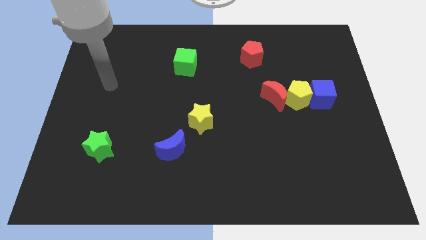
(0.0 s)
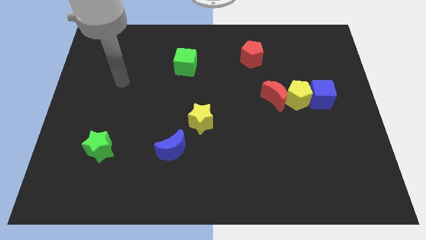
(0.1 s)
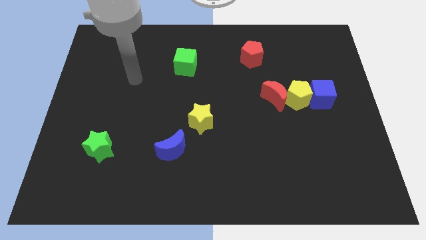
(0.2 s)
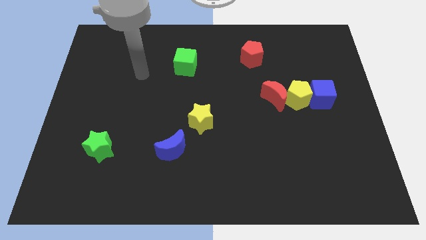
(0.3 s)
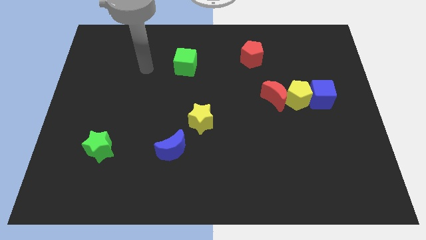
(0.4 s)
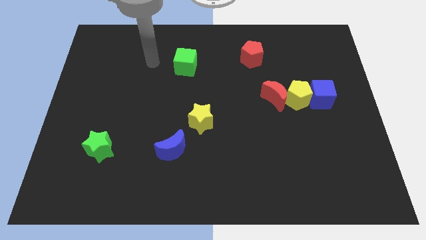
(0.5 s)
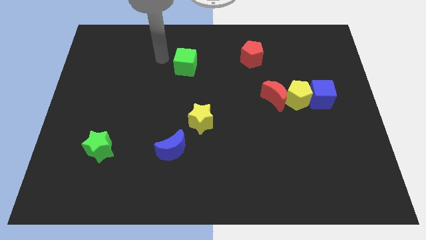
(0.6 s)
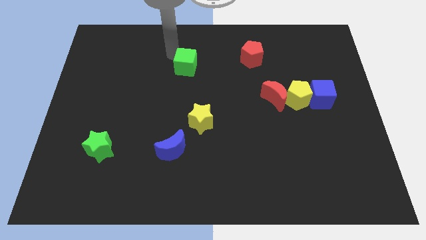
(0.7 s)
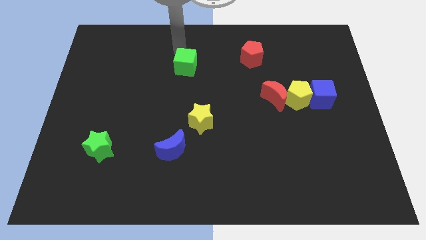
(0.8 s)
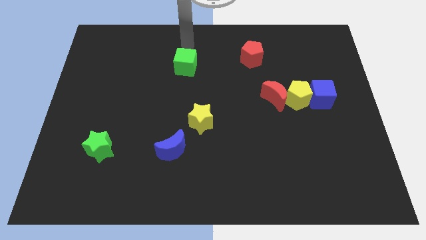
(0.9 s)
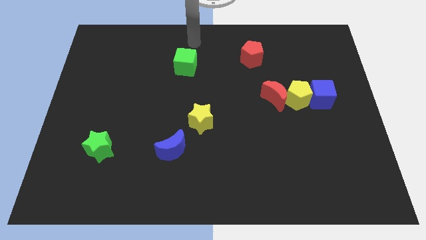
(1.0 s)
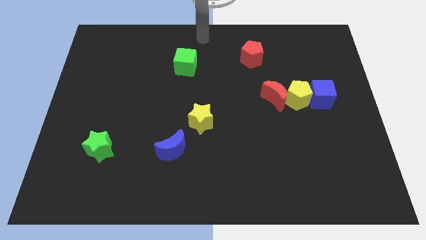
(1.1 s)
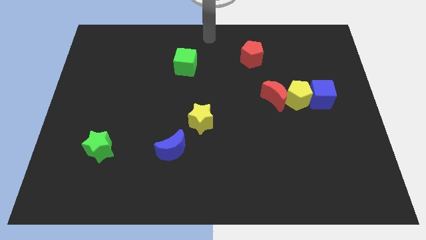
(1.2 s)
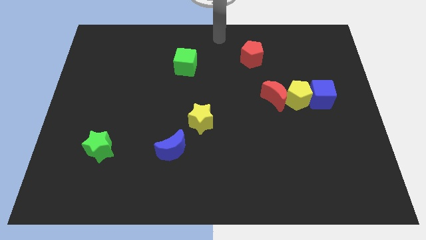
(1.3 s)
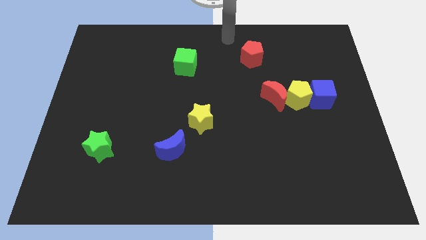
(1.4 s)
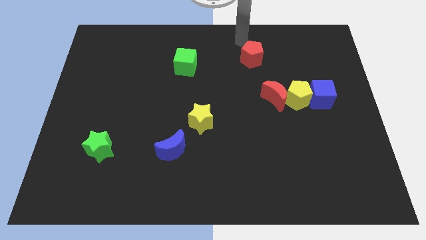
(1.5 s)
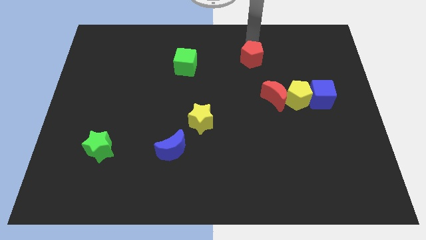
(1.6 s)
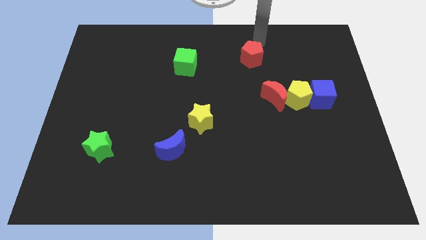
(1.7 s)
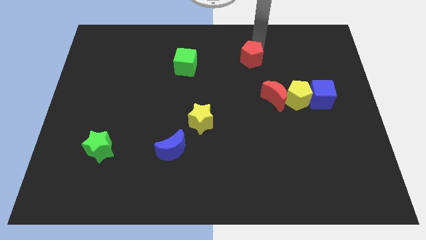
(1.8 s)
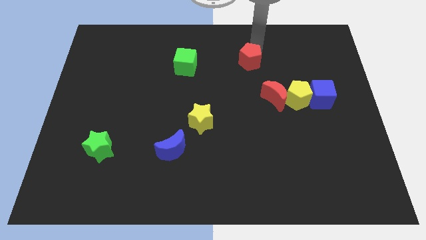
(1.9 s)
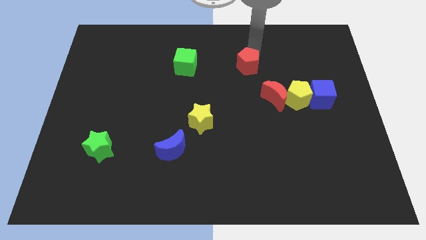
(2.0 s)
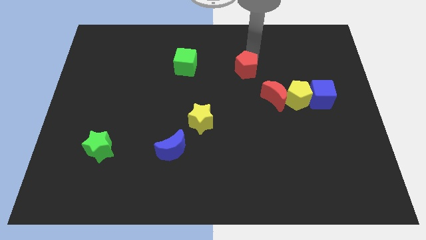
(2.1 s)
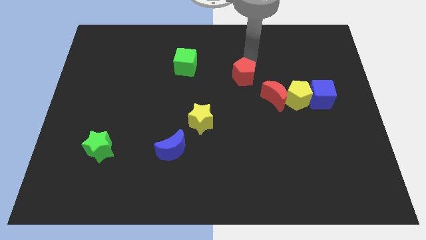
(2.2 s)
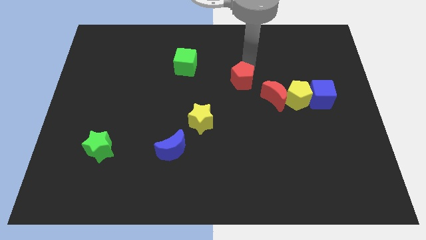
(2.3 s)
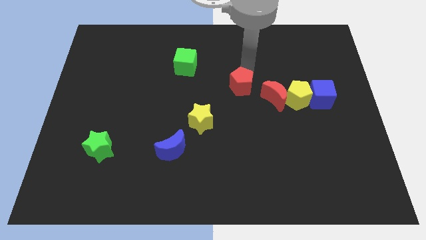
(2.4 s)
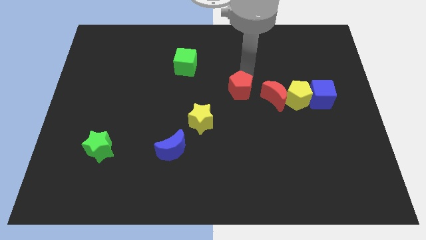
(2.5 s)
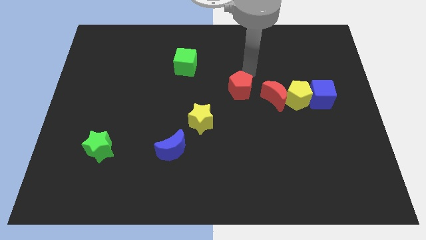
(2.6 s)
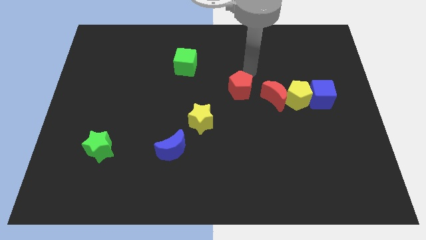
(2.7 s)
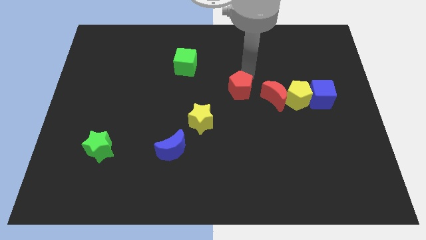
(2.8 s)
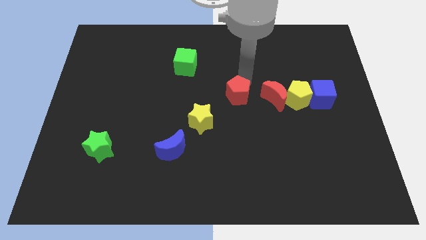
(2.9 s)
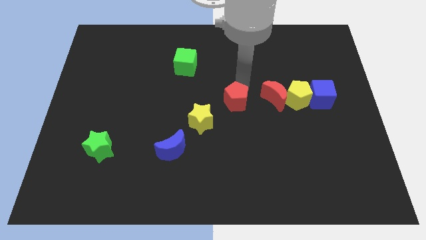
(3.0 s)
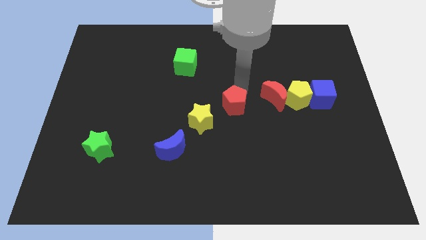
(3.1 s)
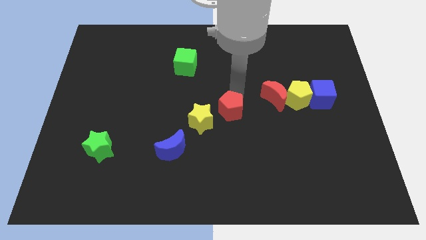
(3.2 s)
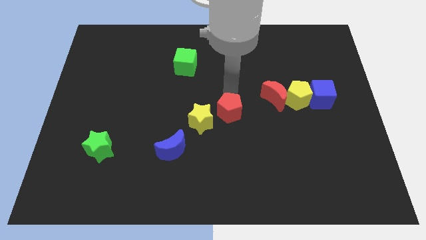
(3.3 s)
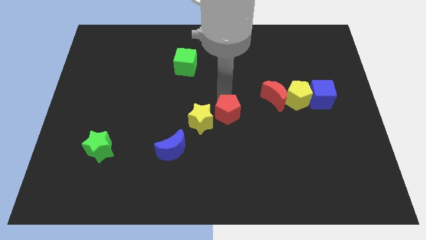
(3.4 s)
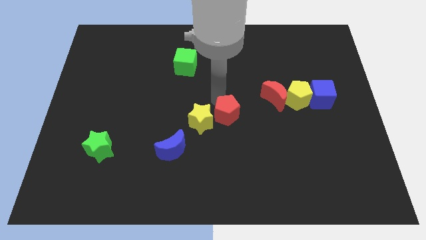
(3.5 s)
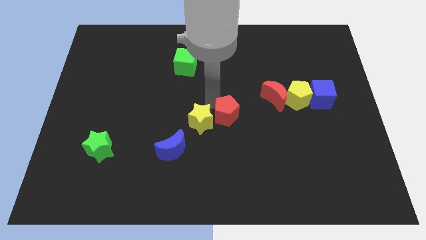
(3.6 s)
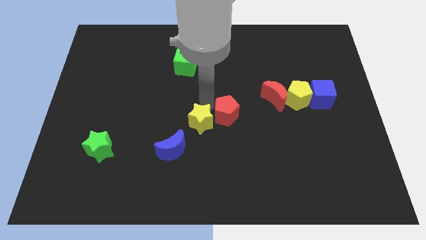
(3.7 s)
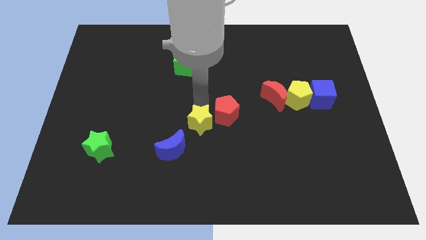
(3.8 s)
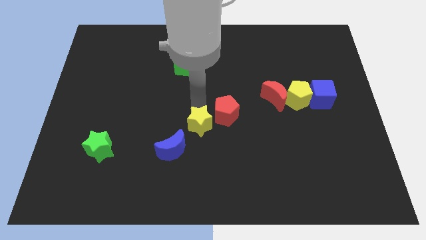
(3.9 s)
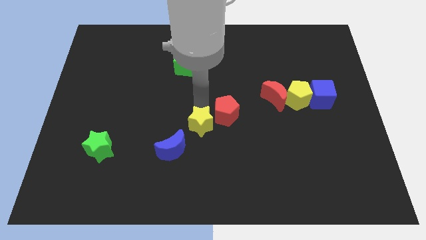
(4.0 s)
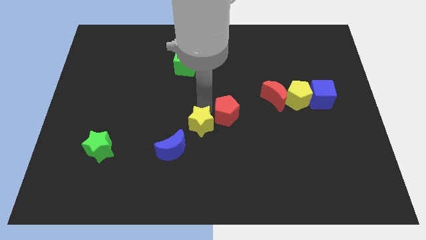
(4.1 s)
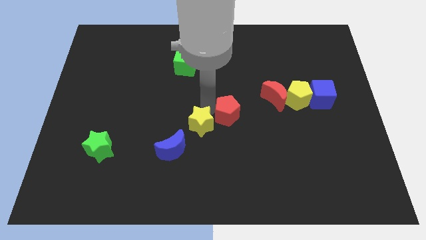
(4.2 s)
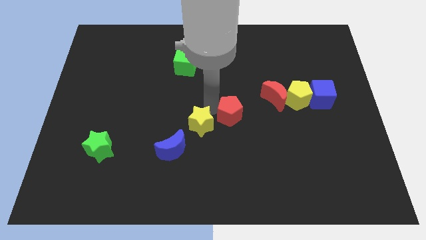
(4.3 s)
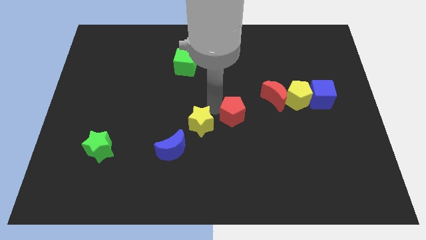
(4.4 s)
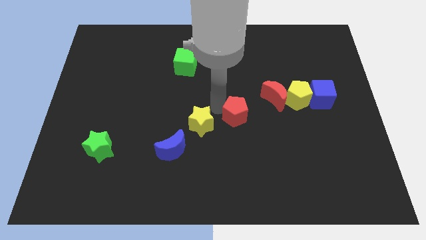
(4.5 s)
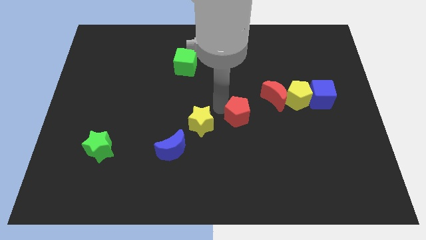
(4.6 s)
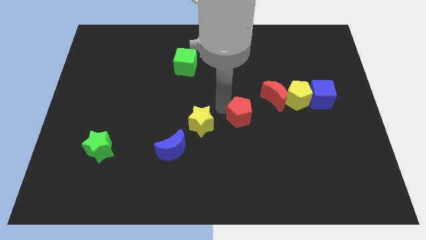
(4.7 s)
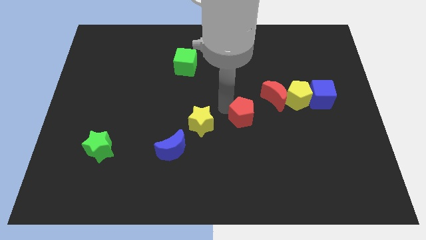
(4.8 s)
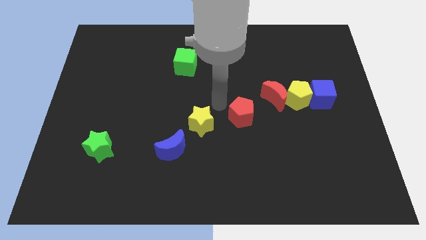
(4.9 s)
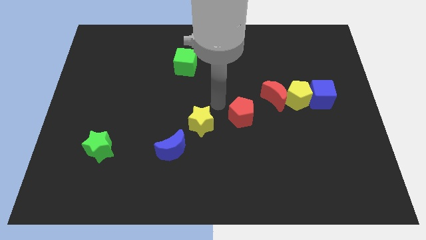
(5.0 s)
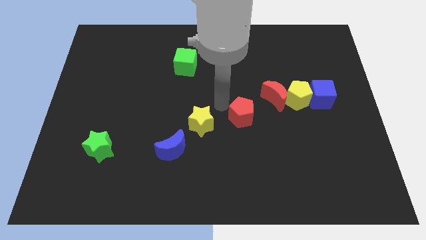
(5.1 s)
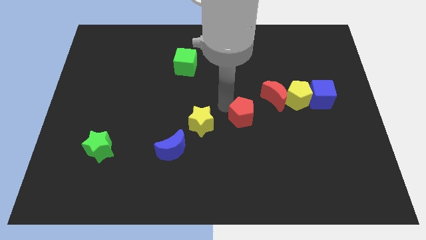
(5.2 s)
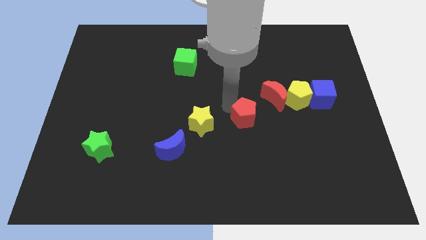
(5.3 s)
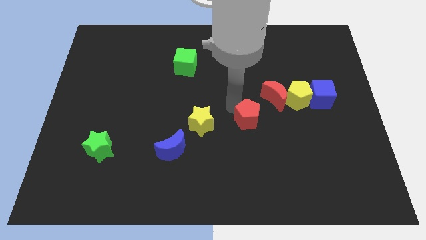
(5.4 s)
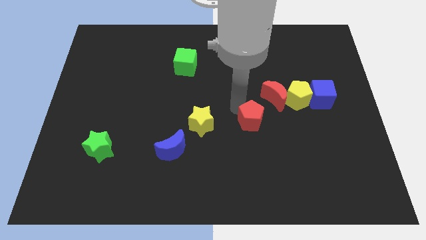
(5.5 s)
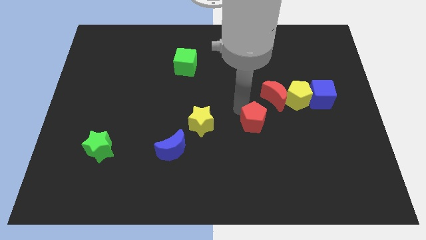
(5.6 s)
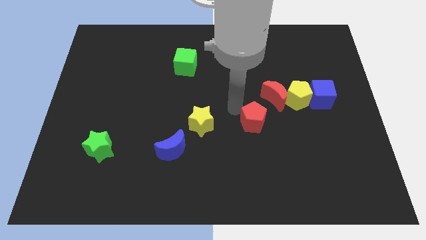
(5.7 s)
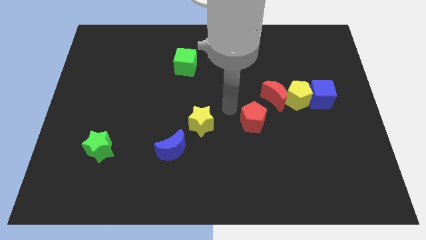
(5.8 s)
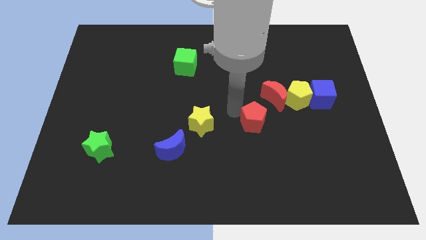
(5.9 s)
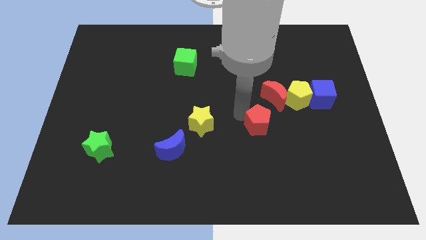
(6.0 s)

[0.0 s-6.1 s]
move the red pentagon below the red moon
